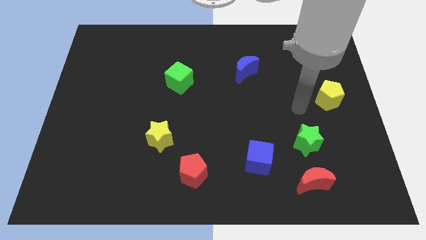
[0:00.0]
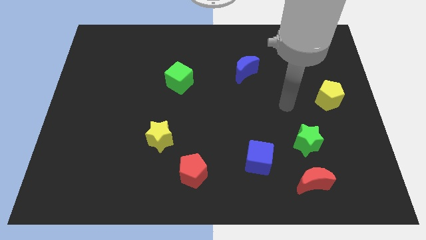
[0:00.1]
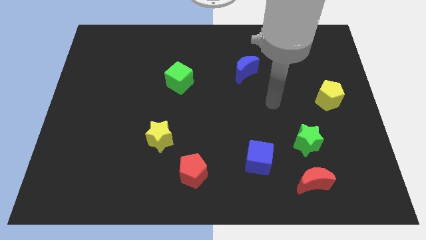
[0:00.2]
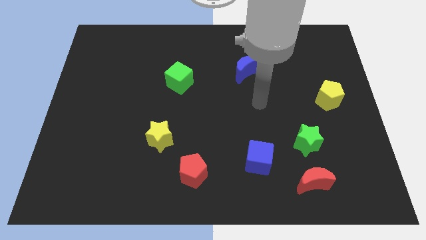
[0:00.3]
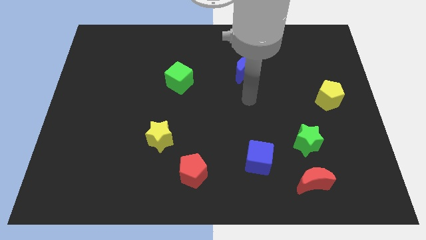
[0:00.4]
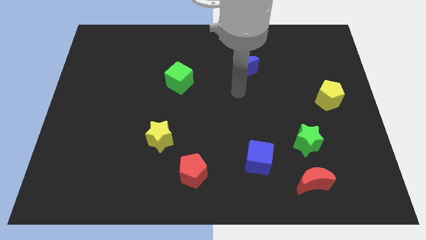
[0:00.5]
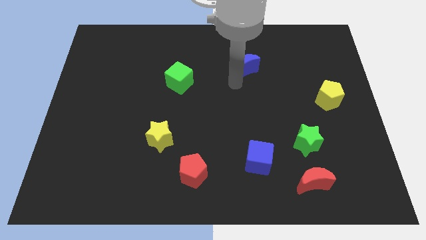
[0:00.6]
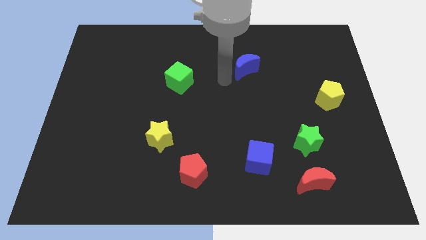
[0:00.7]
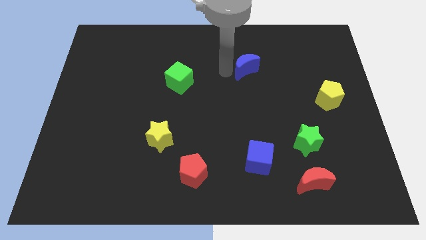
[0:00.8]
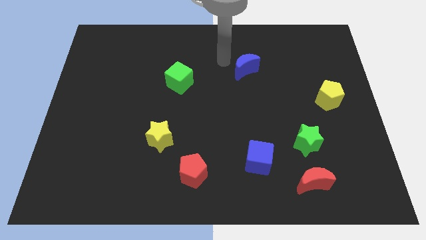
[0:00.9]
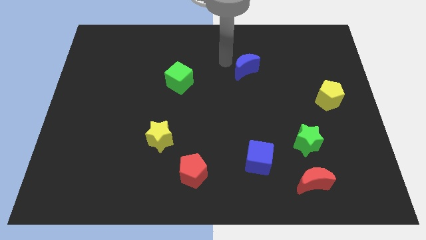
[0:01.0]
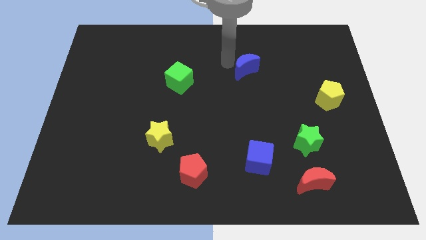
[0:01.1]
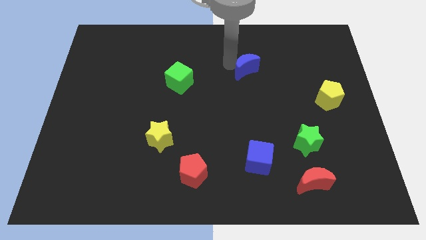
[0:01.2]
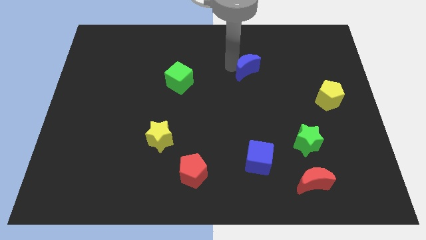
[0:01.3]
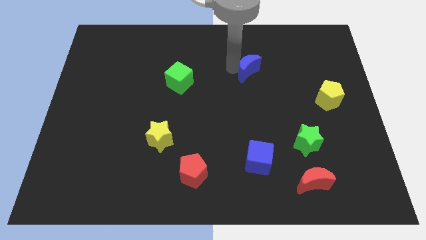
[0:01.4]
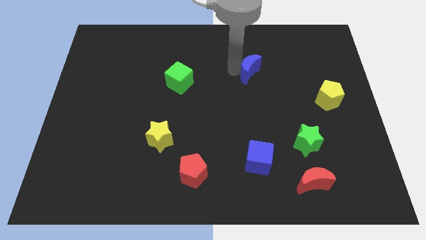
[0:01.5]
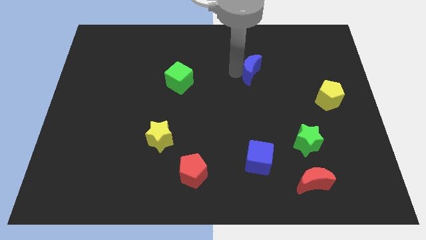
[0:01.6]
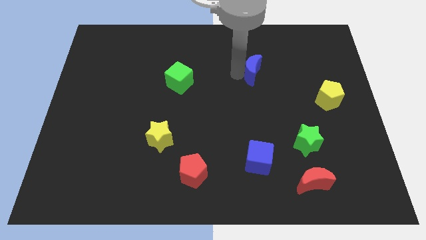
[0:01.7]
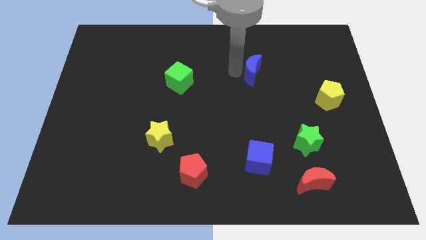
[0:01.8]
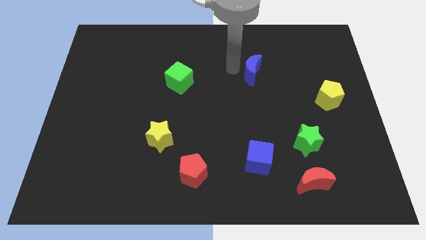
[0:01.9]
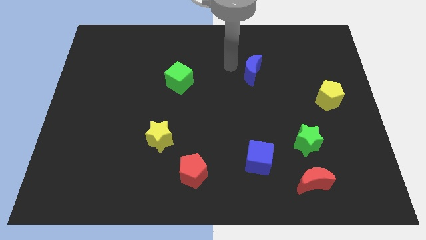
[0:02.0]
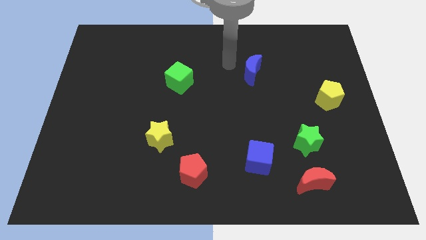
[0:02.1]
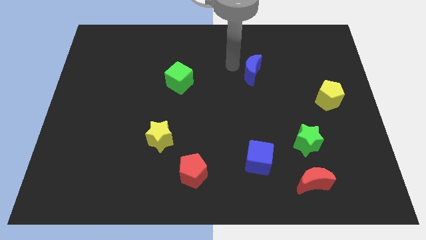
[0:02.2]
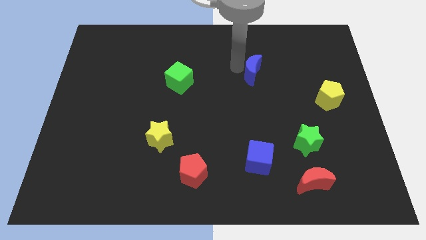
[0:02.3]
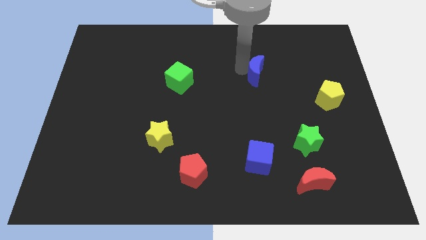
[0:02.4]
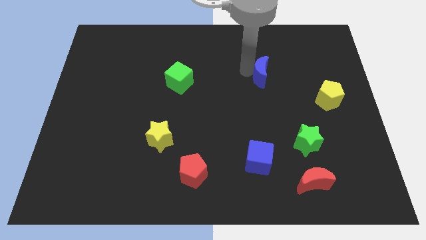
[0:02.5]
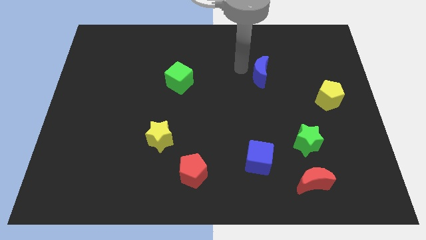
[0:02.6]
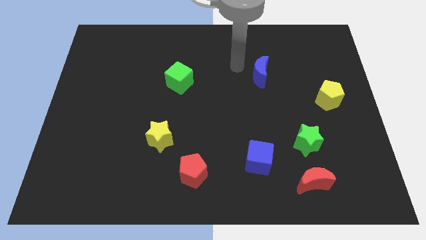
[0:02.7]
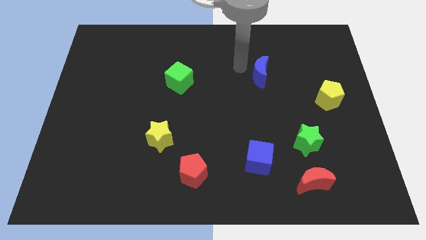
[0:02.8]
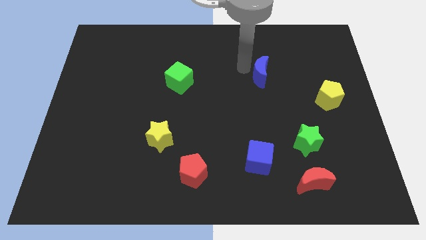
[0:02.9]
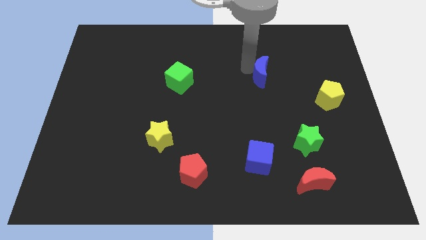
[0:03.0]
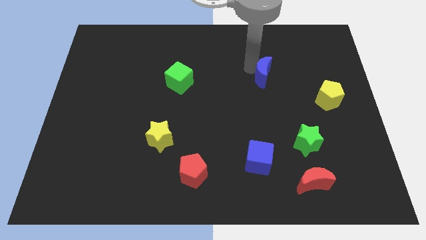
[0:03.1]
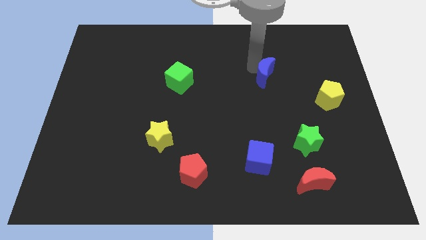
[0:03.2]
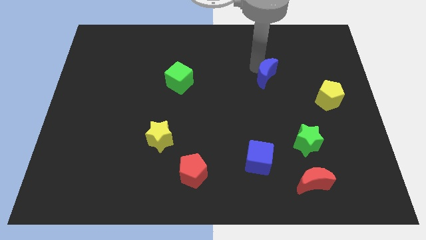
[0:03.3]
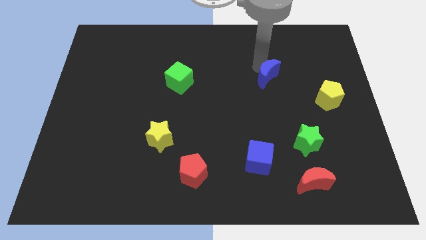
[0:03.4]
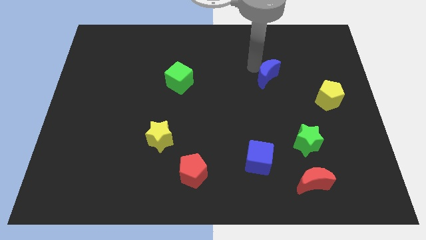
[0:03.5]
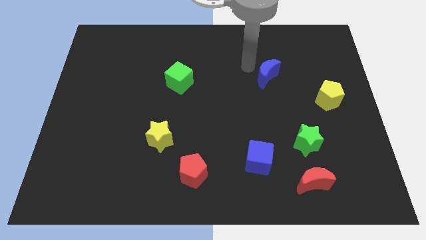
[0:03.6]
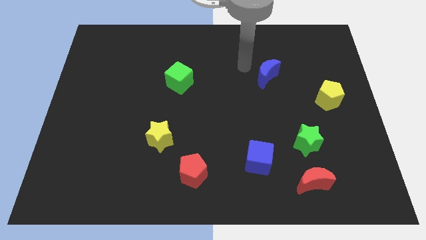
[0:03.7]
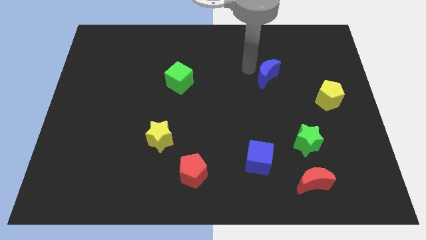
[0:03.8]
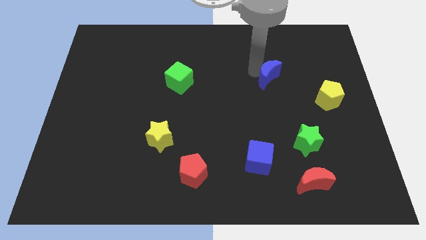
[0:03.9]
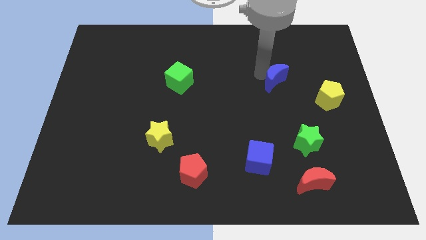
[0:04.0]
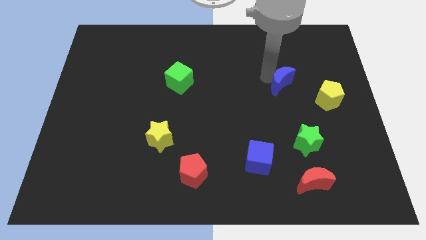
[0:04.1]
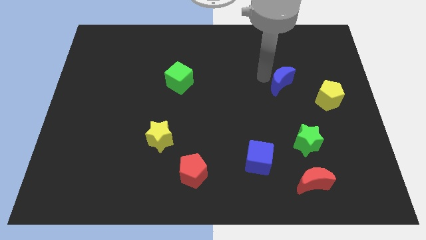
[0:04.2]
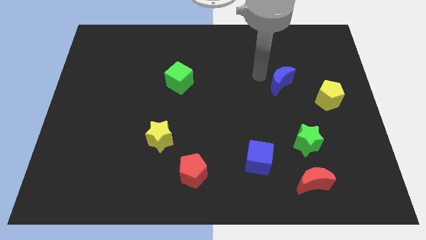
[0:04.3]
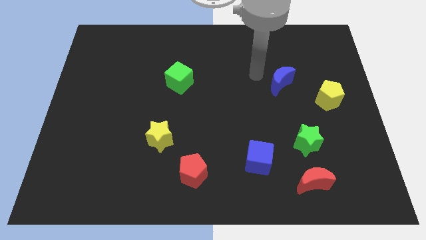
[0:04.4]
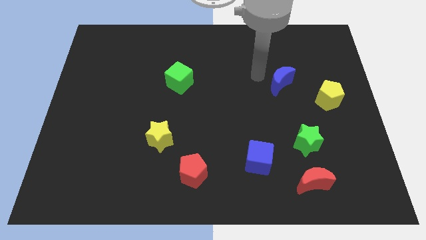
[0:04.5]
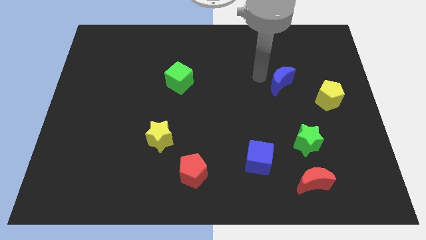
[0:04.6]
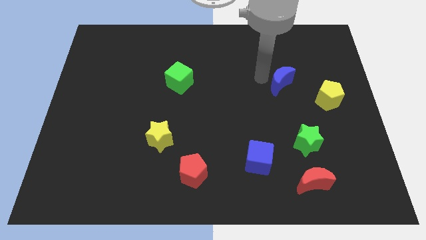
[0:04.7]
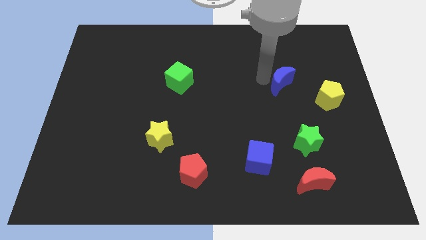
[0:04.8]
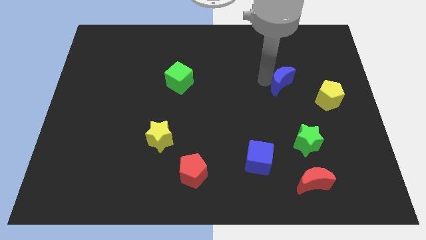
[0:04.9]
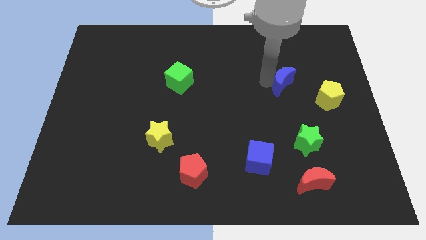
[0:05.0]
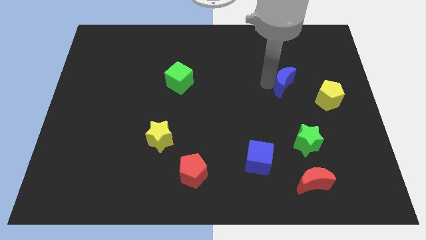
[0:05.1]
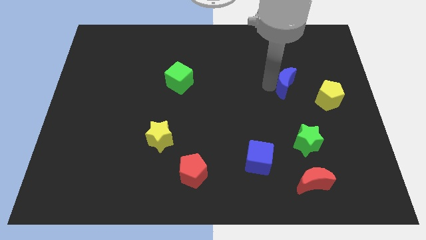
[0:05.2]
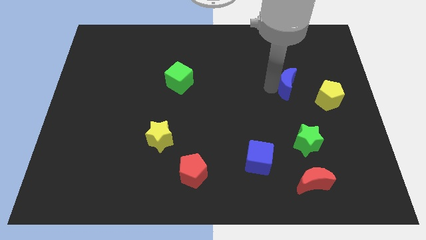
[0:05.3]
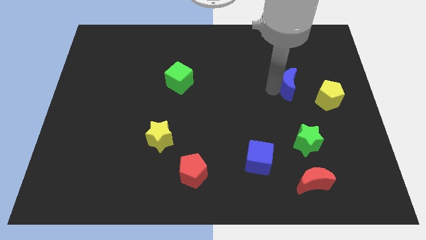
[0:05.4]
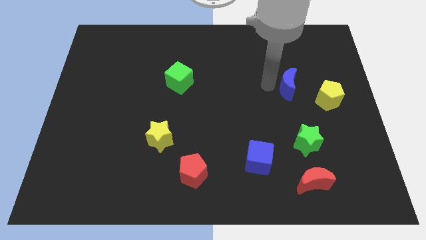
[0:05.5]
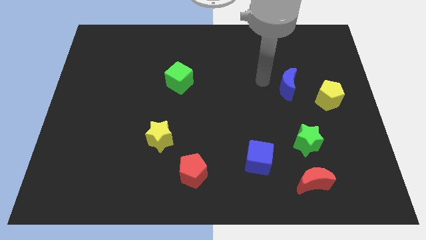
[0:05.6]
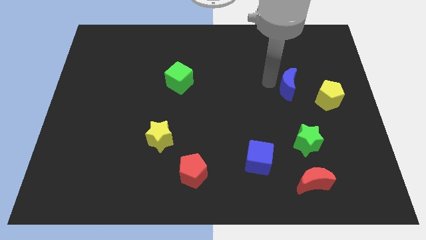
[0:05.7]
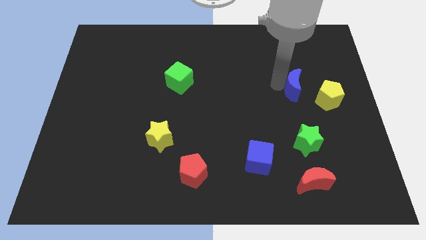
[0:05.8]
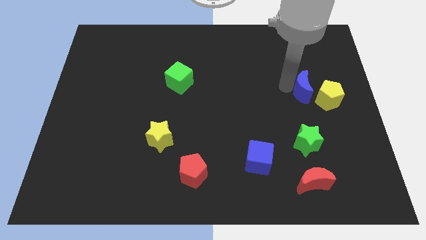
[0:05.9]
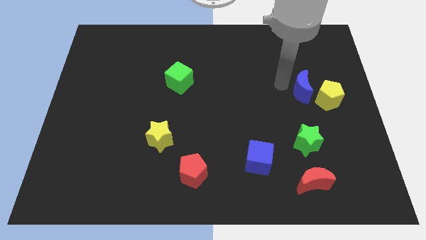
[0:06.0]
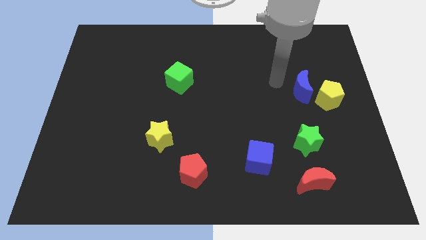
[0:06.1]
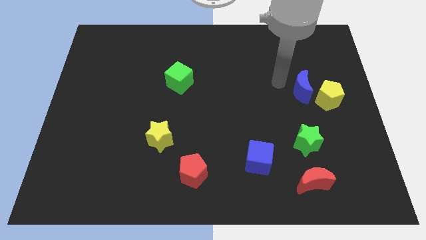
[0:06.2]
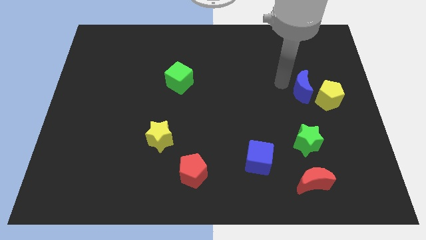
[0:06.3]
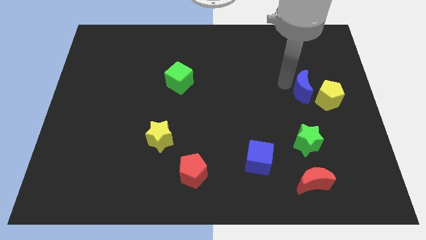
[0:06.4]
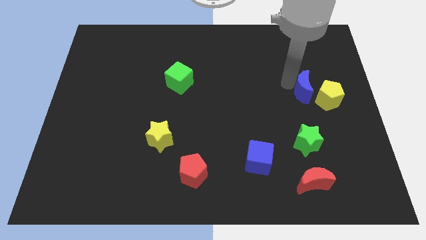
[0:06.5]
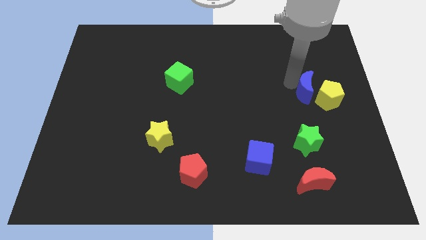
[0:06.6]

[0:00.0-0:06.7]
slide the blue moon close to the yellow pentagon

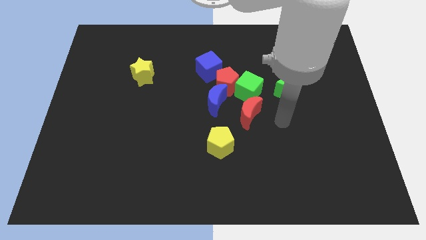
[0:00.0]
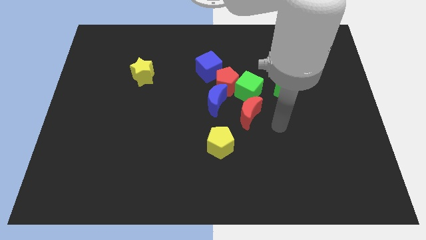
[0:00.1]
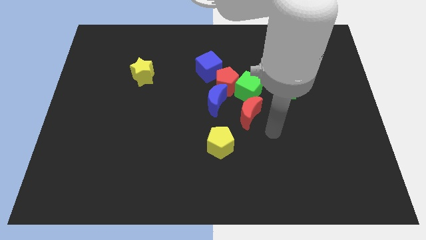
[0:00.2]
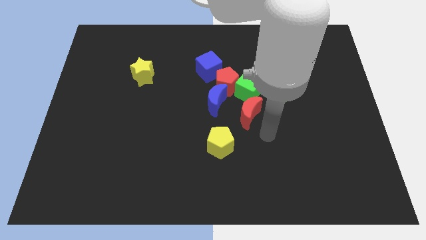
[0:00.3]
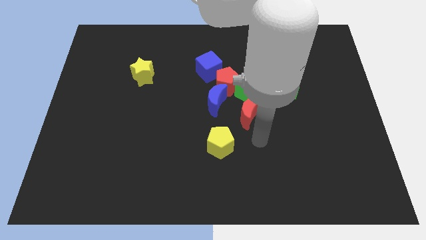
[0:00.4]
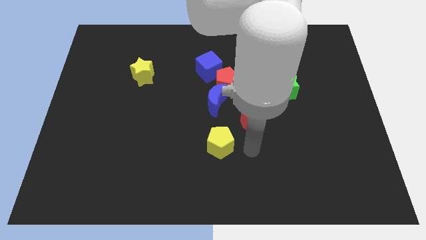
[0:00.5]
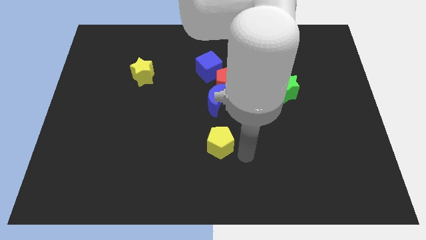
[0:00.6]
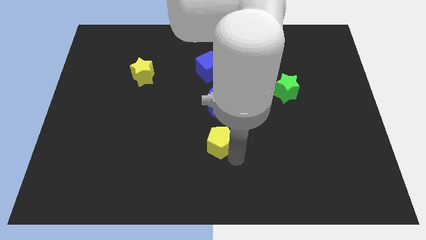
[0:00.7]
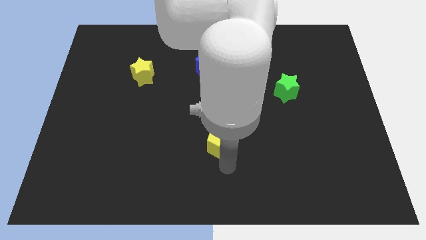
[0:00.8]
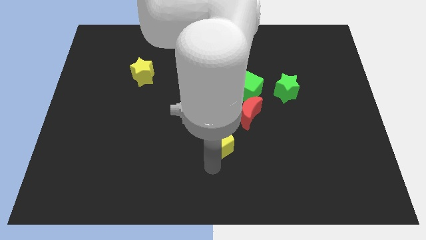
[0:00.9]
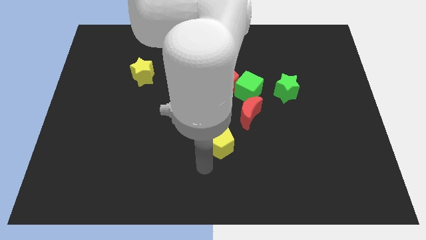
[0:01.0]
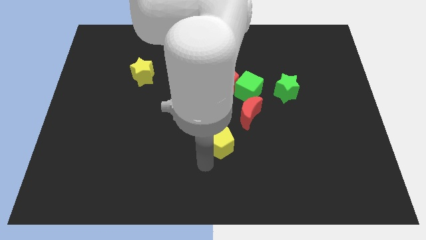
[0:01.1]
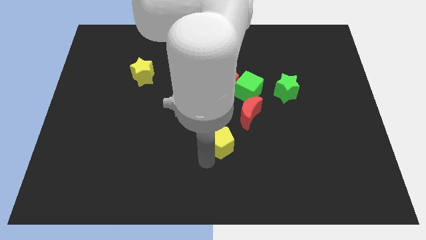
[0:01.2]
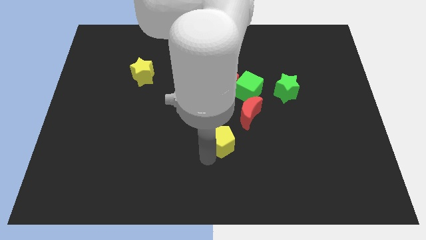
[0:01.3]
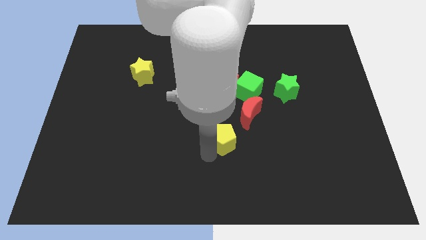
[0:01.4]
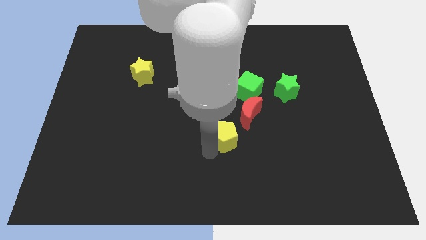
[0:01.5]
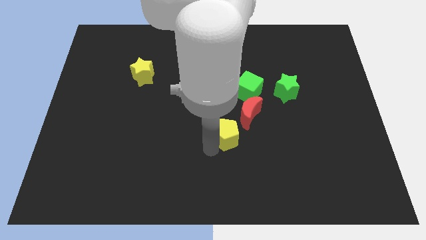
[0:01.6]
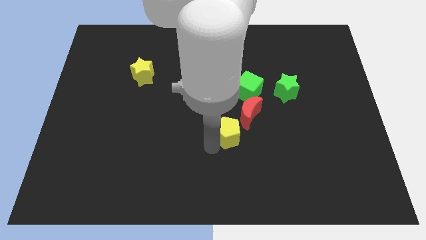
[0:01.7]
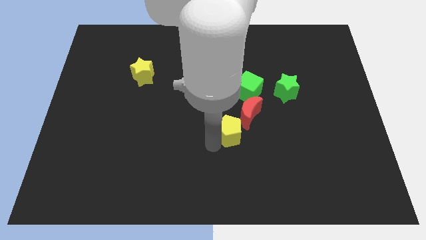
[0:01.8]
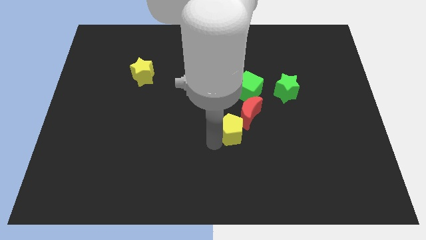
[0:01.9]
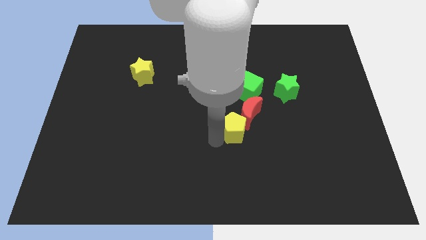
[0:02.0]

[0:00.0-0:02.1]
move the yellow pentagon next to the red moon
